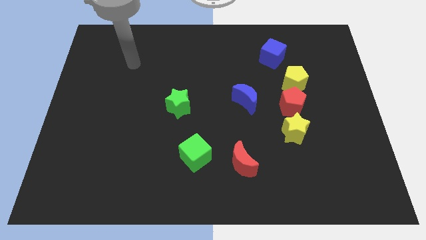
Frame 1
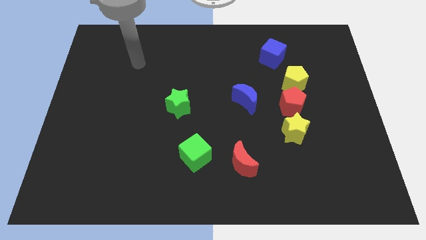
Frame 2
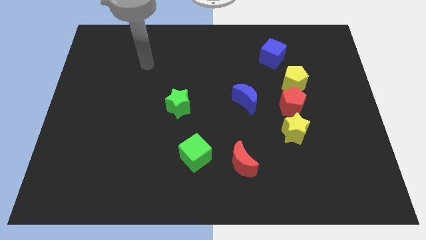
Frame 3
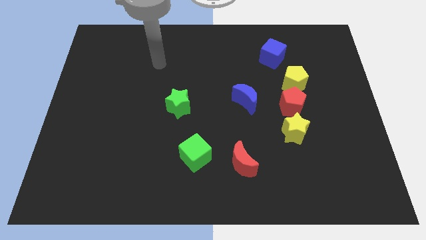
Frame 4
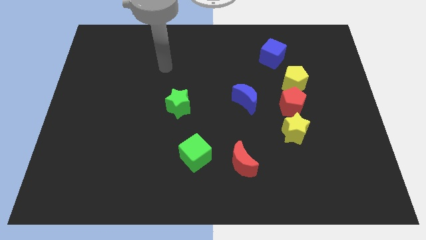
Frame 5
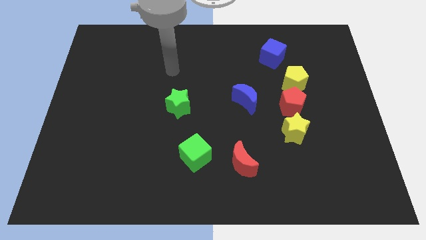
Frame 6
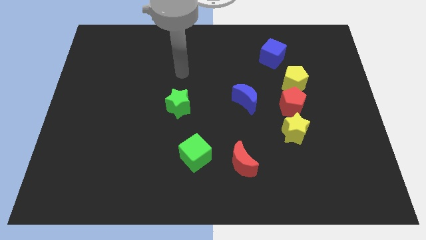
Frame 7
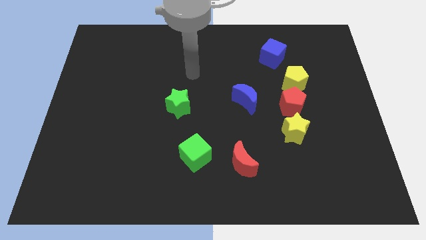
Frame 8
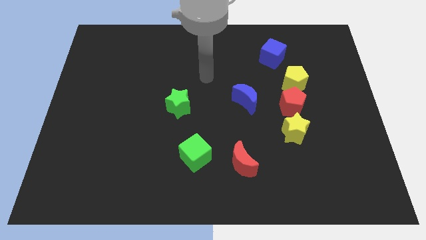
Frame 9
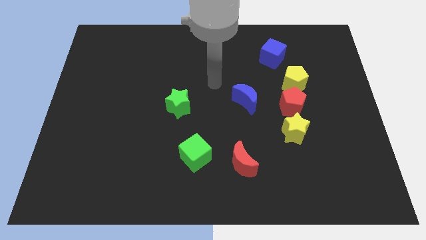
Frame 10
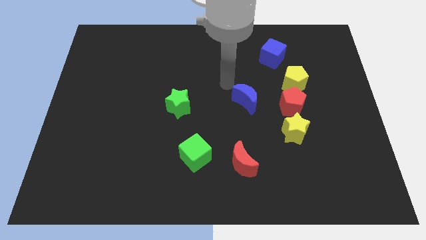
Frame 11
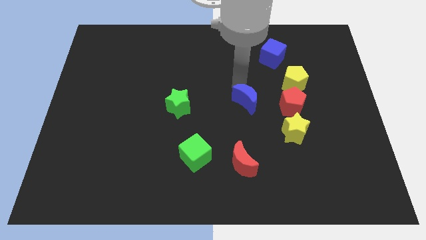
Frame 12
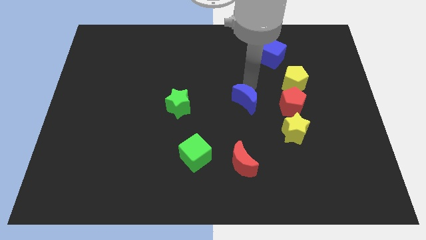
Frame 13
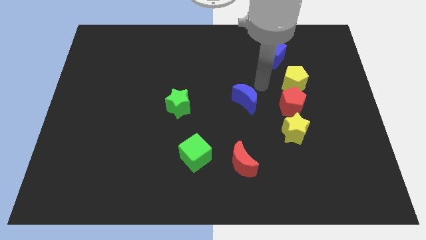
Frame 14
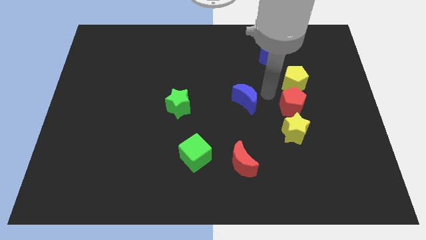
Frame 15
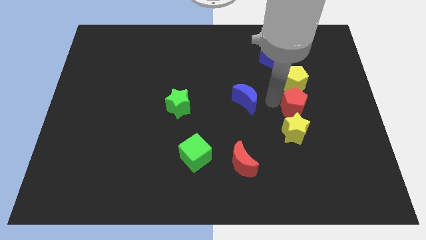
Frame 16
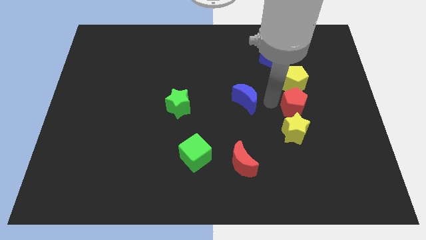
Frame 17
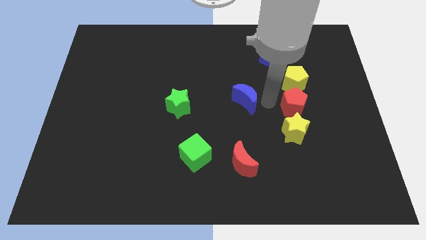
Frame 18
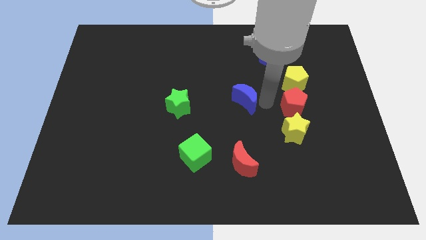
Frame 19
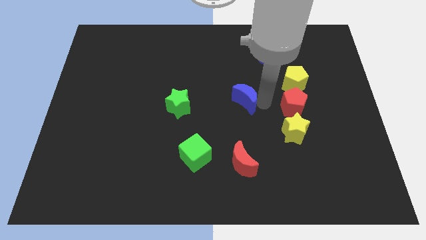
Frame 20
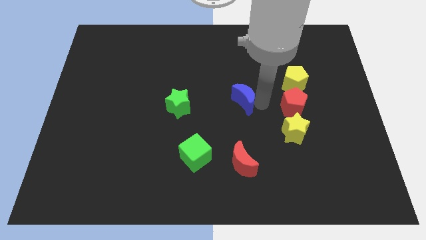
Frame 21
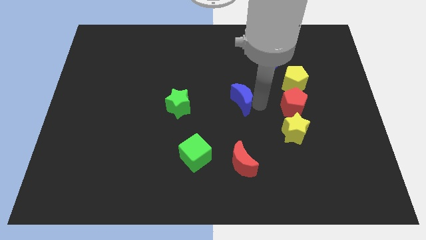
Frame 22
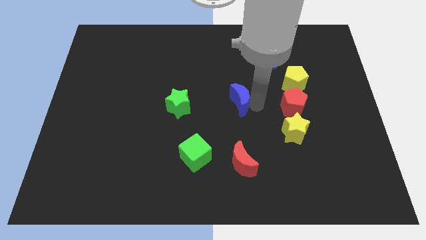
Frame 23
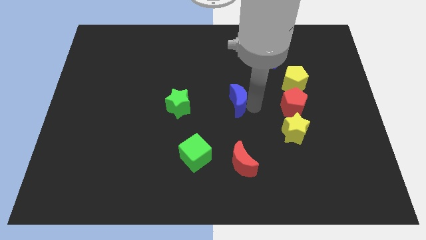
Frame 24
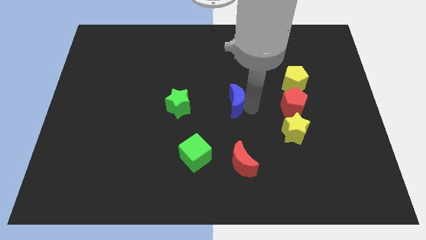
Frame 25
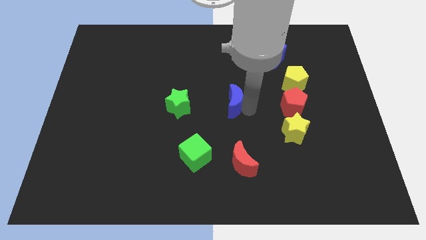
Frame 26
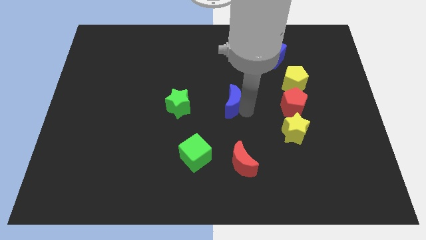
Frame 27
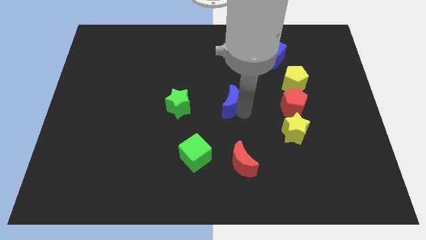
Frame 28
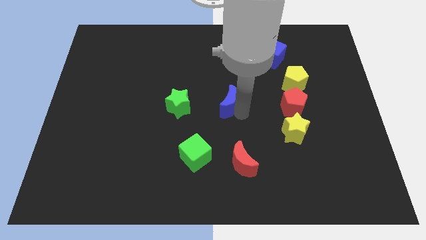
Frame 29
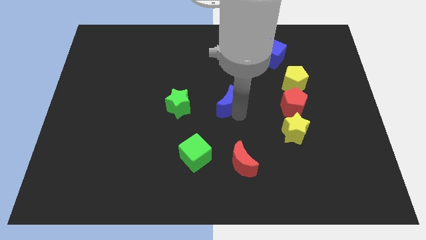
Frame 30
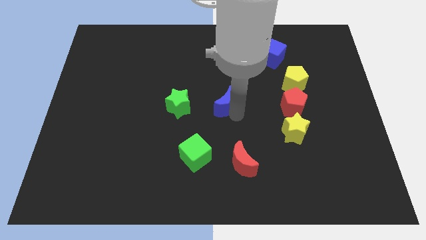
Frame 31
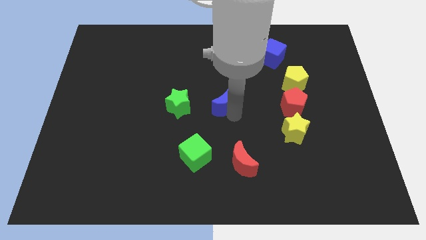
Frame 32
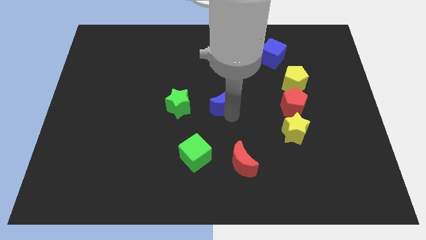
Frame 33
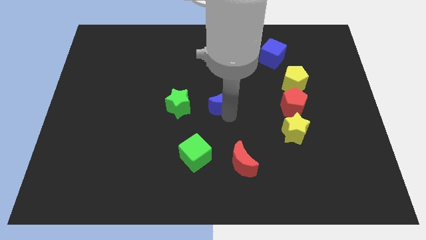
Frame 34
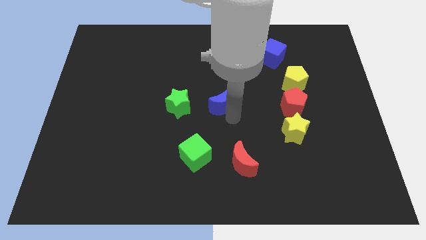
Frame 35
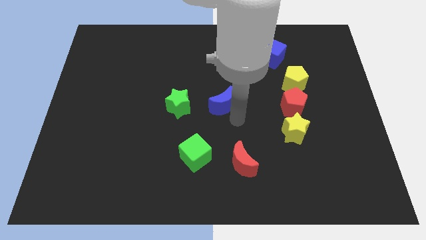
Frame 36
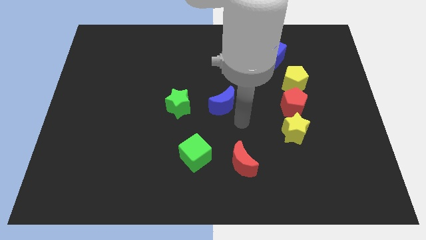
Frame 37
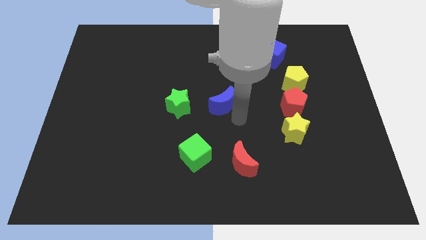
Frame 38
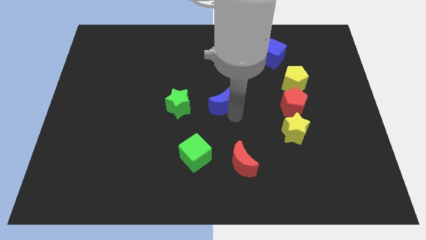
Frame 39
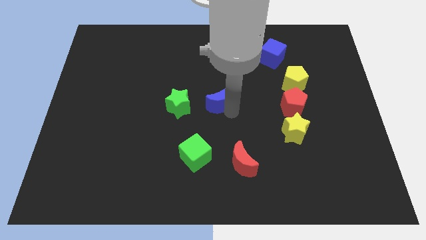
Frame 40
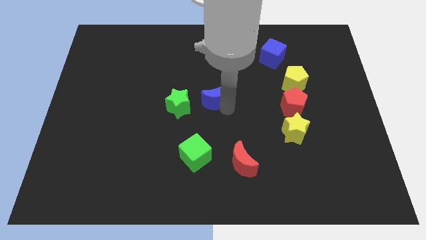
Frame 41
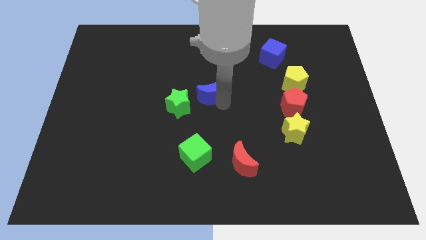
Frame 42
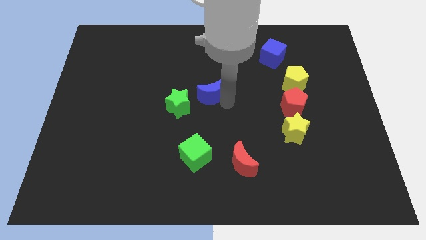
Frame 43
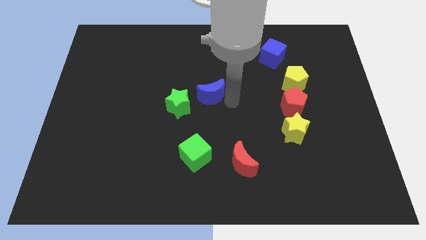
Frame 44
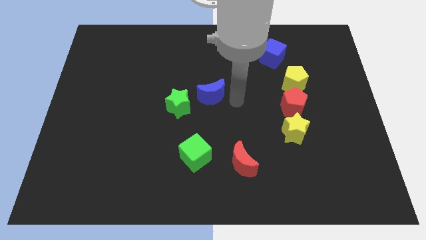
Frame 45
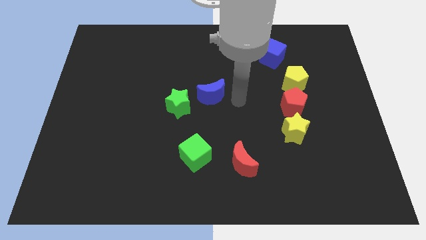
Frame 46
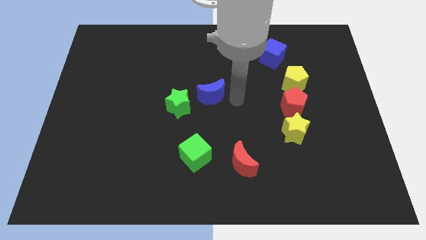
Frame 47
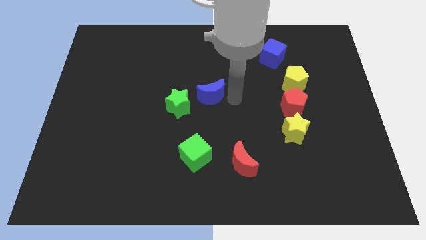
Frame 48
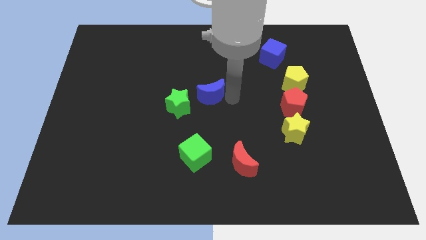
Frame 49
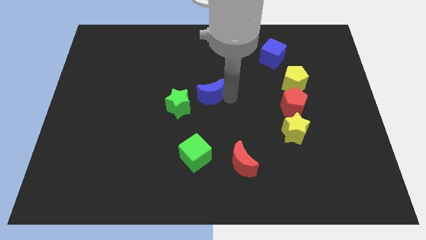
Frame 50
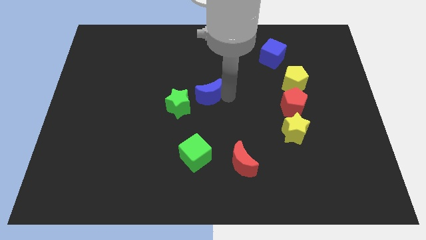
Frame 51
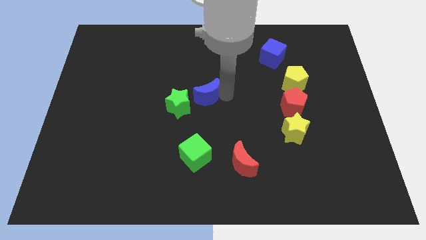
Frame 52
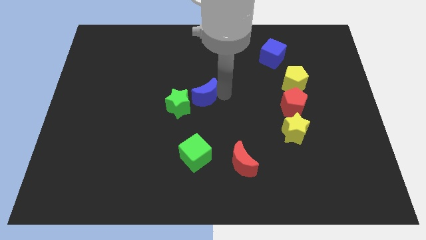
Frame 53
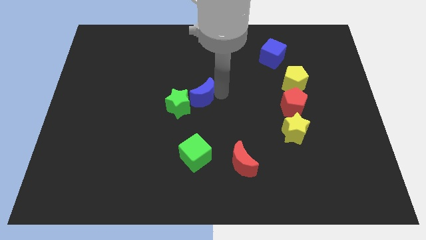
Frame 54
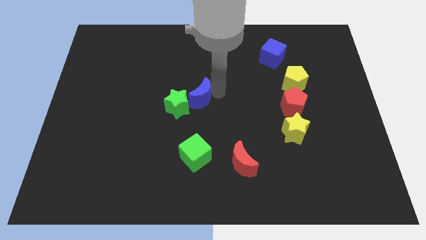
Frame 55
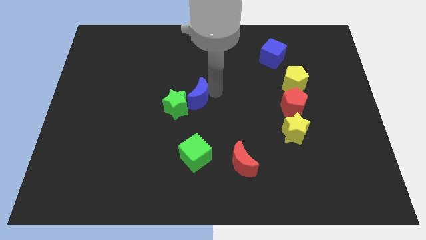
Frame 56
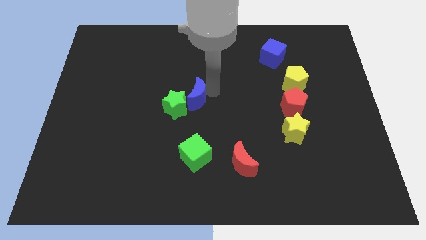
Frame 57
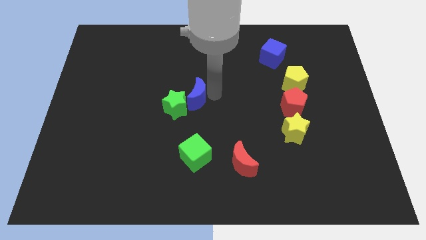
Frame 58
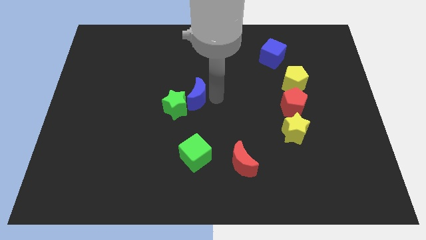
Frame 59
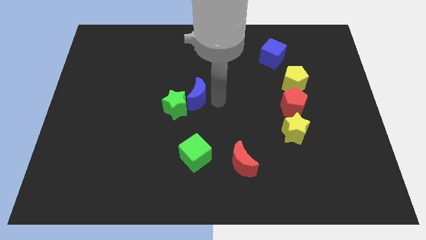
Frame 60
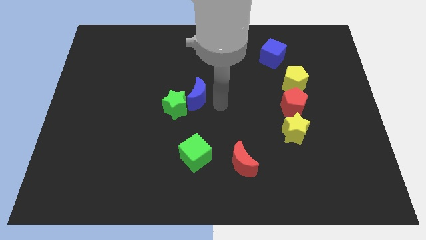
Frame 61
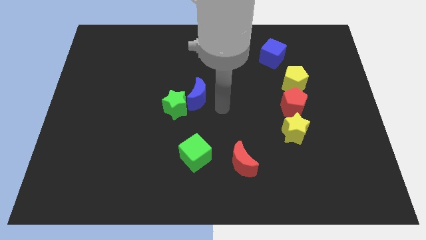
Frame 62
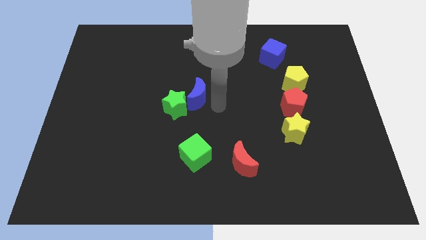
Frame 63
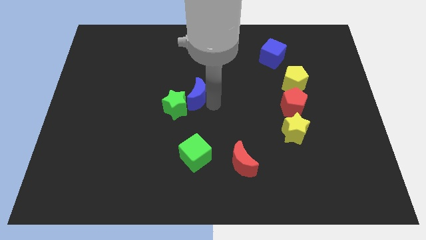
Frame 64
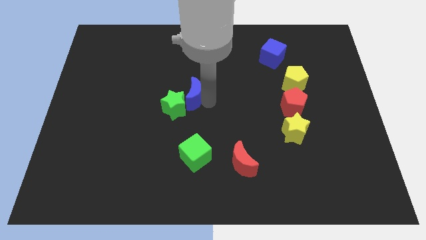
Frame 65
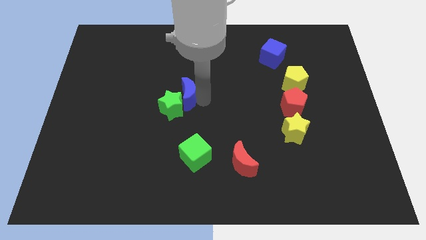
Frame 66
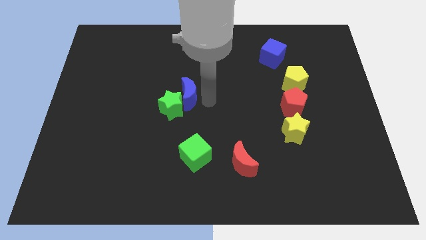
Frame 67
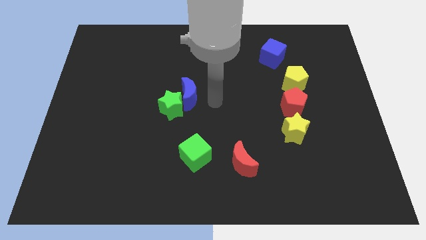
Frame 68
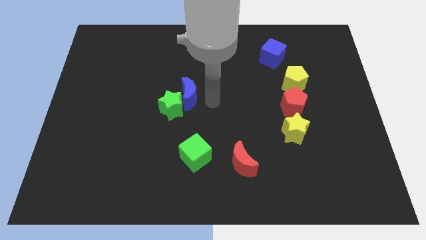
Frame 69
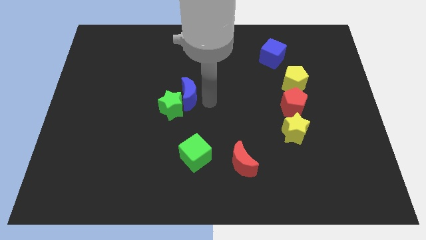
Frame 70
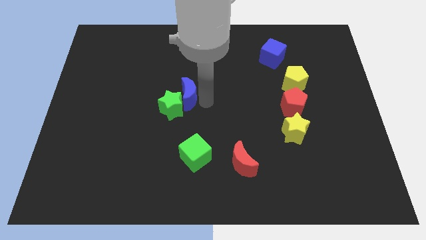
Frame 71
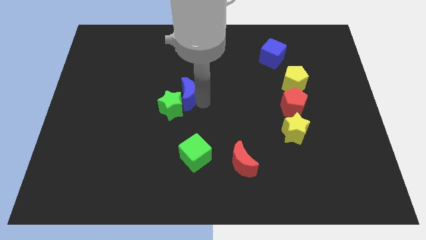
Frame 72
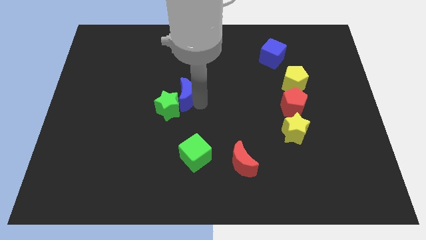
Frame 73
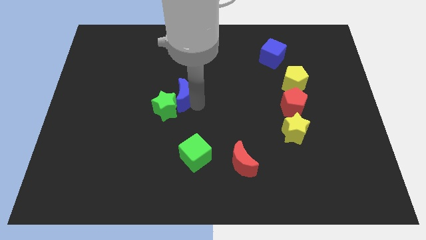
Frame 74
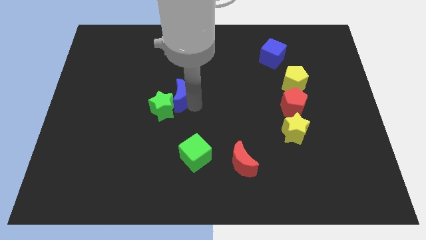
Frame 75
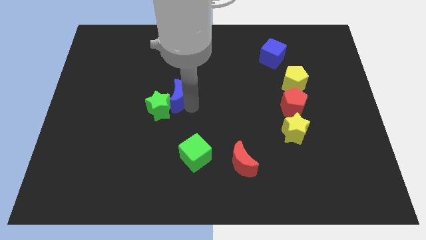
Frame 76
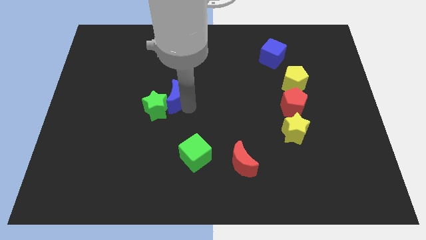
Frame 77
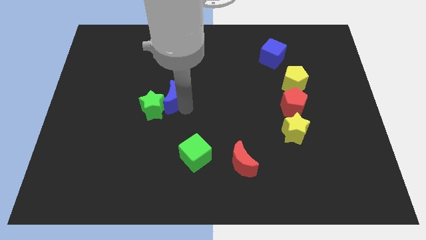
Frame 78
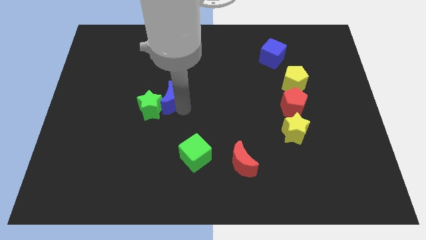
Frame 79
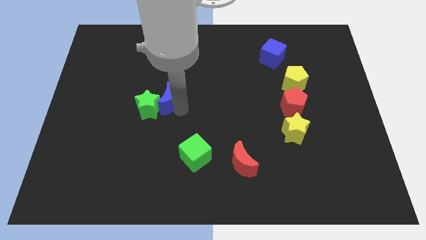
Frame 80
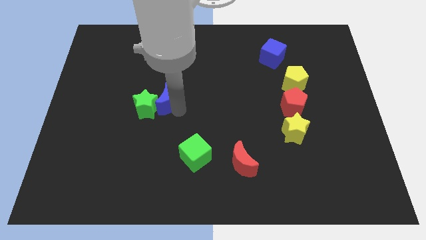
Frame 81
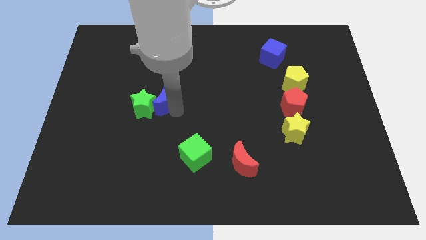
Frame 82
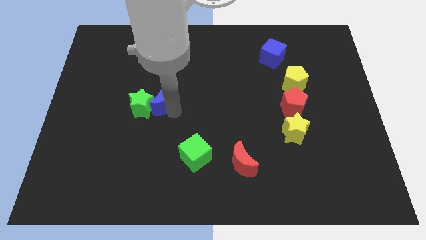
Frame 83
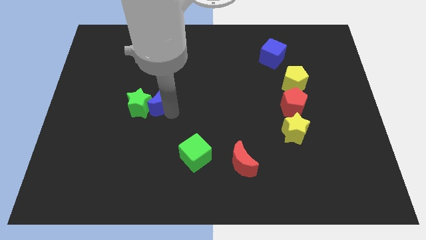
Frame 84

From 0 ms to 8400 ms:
move the blue moon to the left
